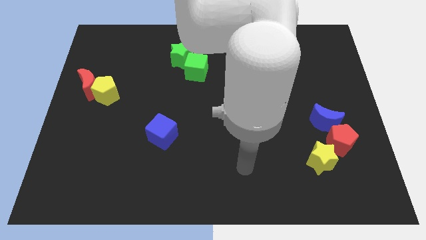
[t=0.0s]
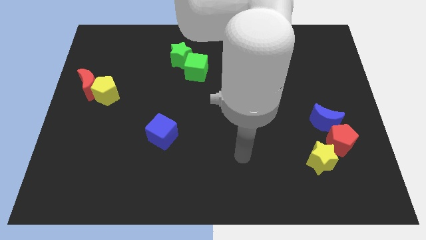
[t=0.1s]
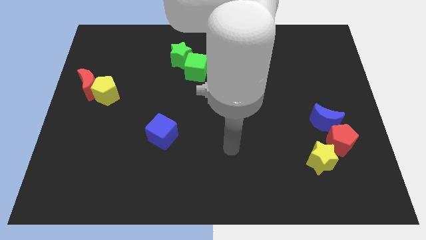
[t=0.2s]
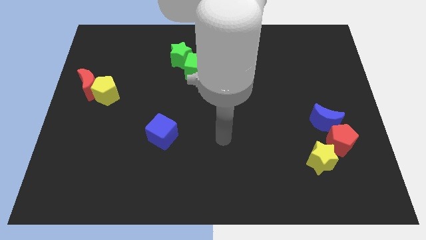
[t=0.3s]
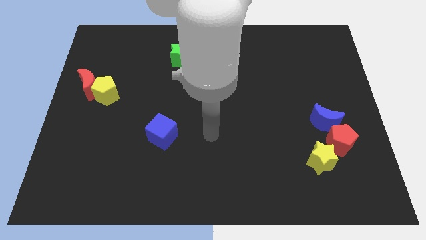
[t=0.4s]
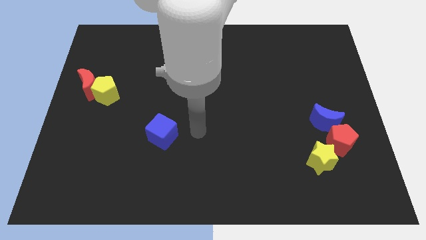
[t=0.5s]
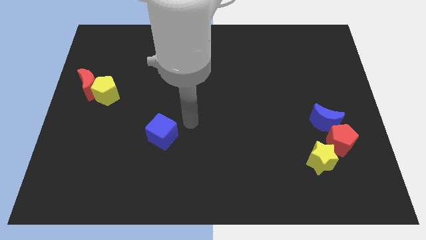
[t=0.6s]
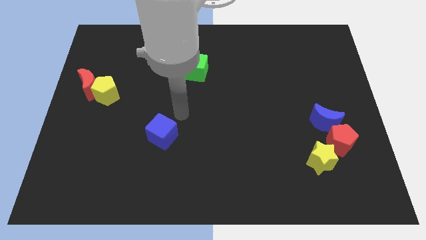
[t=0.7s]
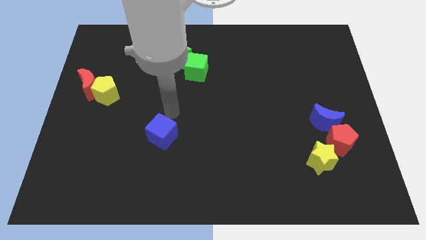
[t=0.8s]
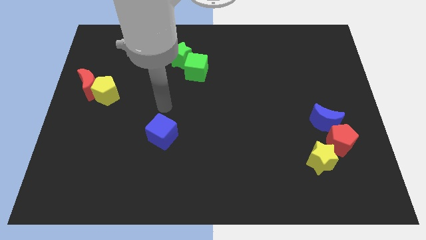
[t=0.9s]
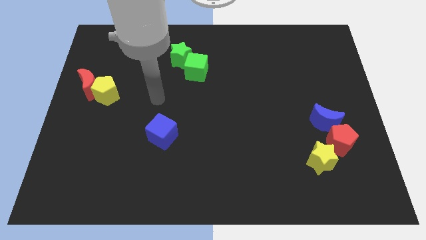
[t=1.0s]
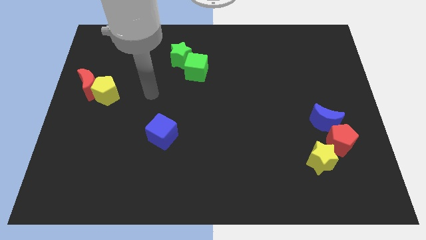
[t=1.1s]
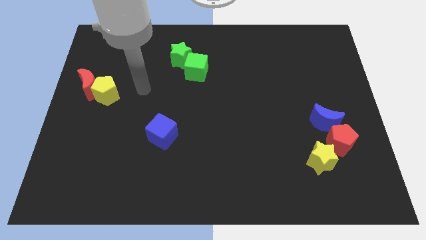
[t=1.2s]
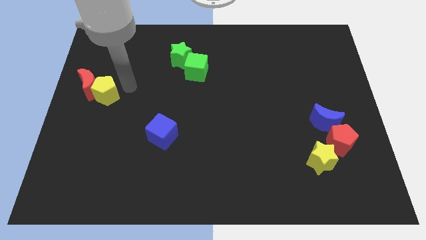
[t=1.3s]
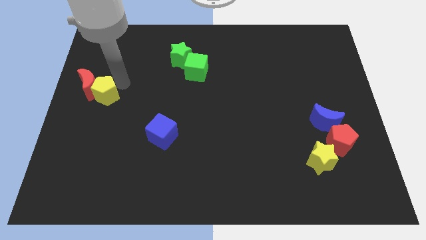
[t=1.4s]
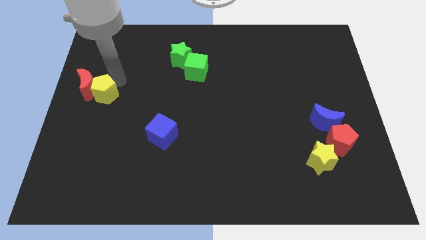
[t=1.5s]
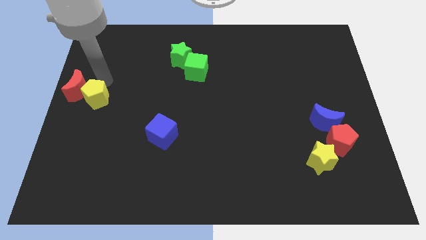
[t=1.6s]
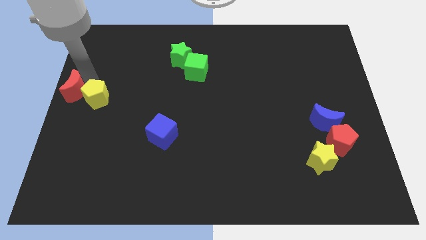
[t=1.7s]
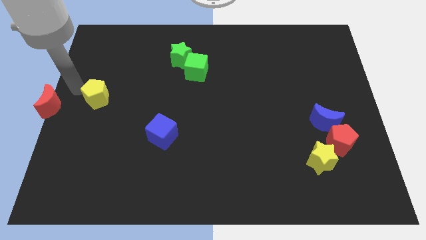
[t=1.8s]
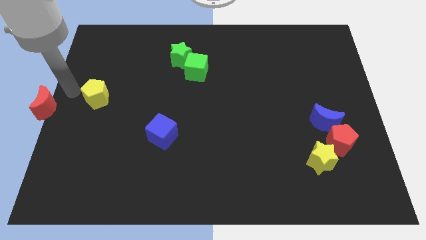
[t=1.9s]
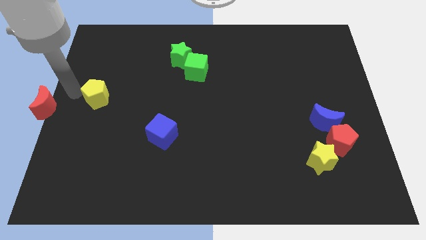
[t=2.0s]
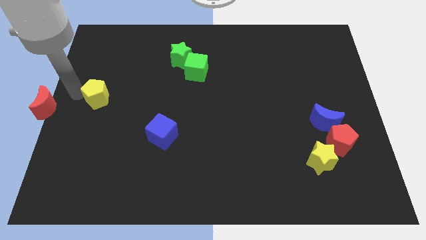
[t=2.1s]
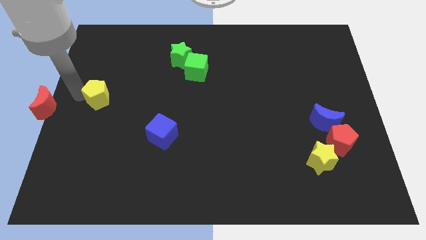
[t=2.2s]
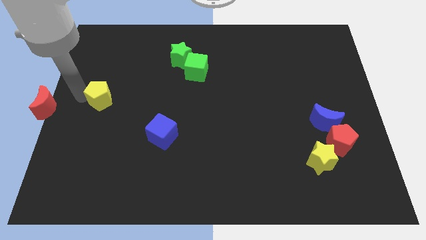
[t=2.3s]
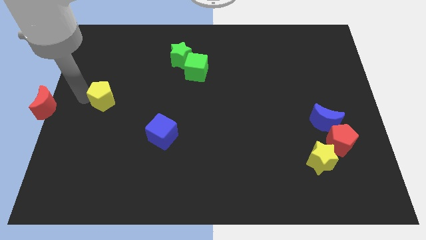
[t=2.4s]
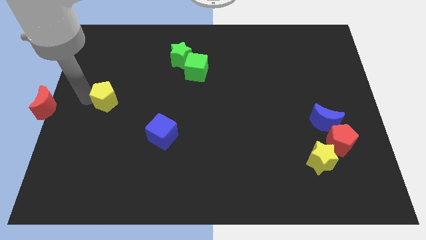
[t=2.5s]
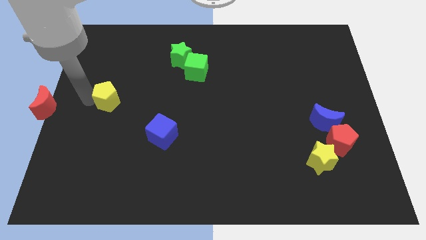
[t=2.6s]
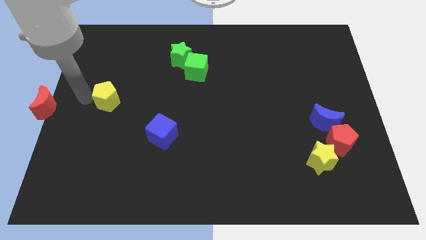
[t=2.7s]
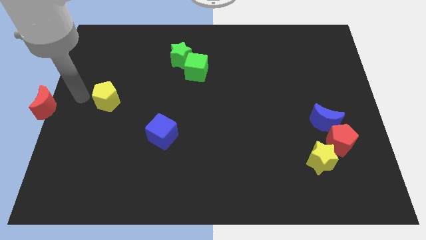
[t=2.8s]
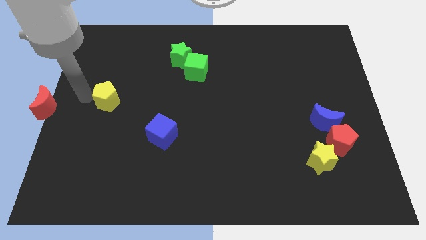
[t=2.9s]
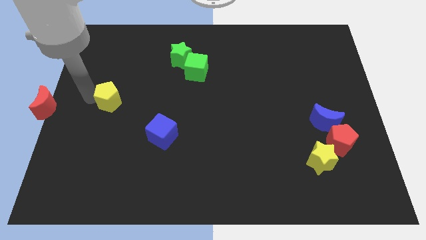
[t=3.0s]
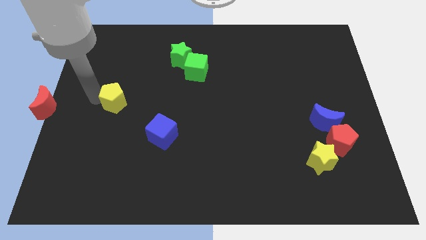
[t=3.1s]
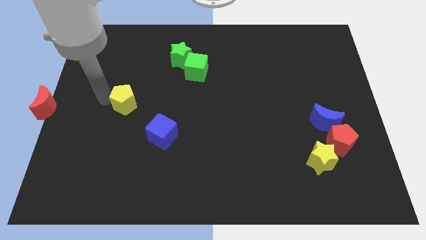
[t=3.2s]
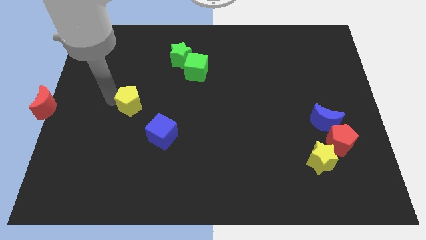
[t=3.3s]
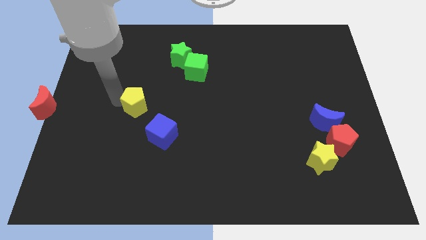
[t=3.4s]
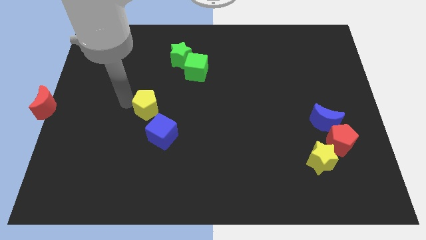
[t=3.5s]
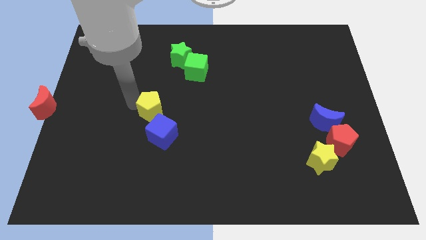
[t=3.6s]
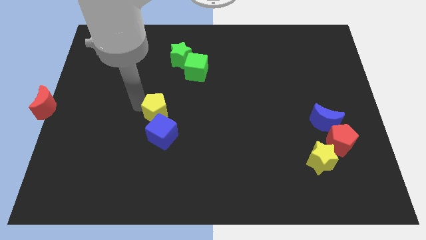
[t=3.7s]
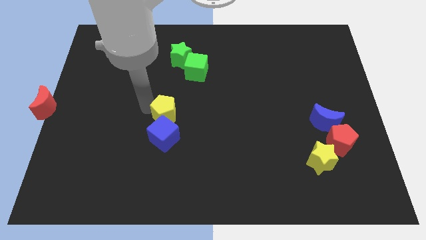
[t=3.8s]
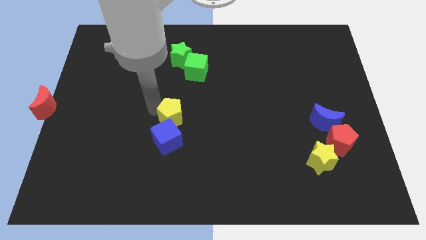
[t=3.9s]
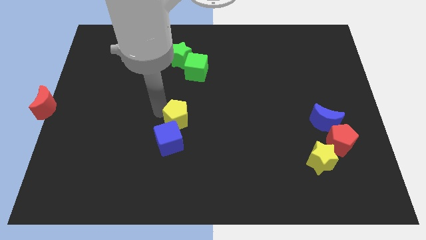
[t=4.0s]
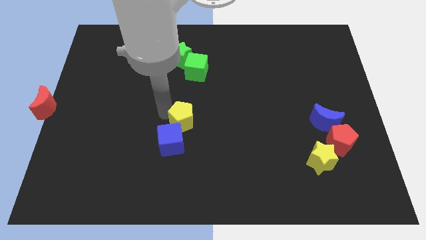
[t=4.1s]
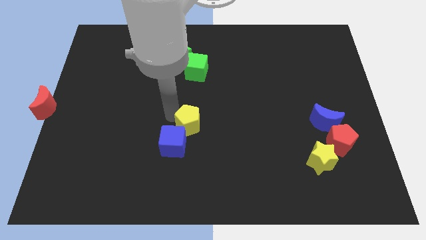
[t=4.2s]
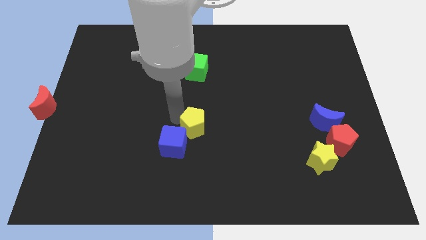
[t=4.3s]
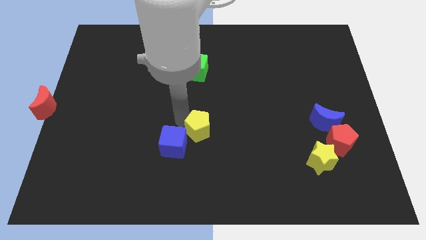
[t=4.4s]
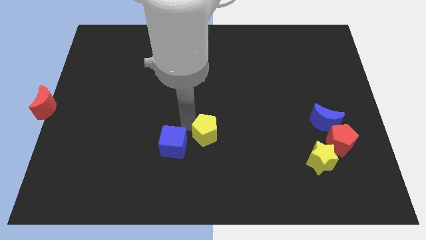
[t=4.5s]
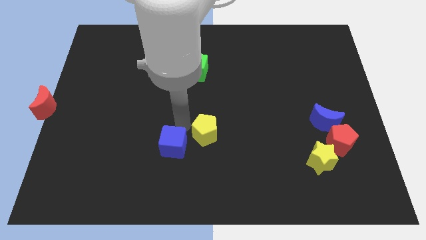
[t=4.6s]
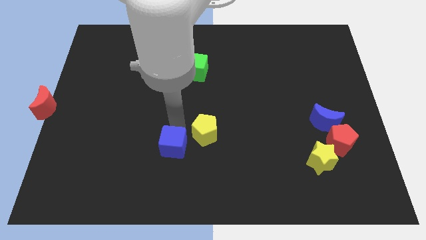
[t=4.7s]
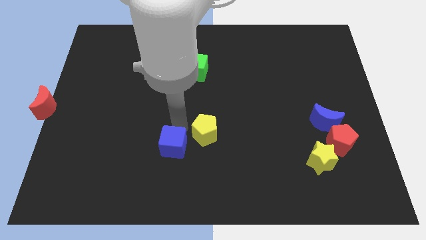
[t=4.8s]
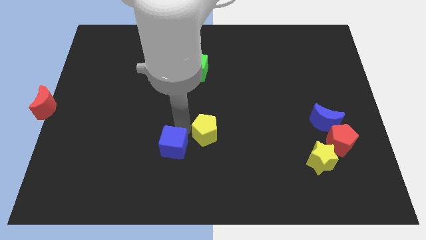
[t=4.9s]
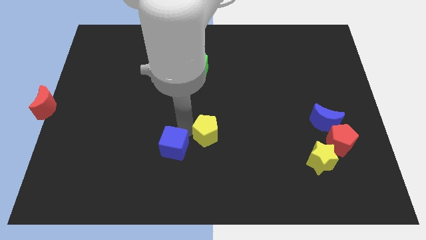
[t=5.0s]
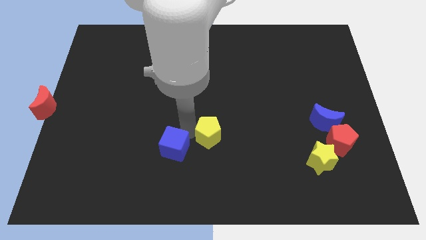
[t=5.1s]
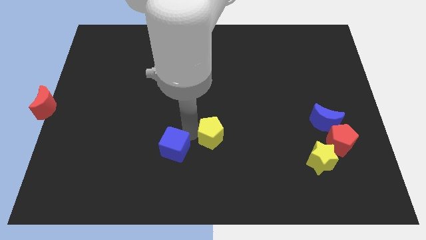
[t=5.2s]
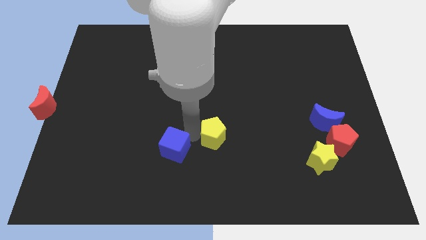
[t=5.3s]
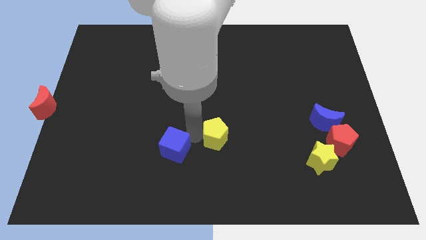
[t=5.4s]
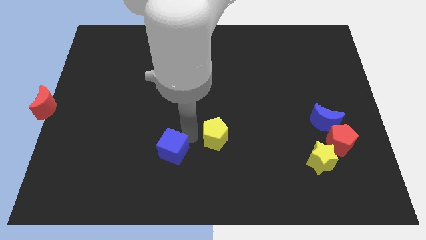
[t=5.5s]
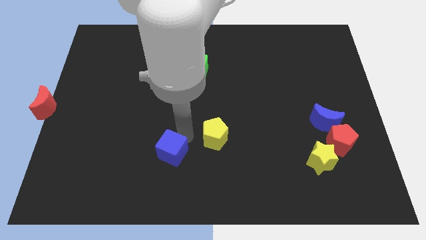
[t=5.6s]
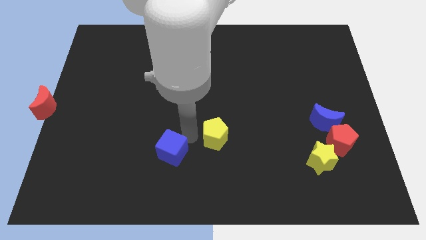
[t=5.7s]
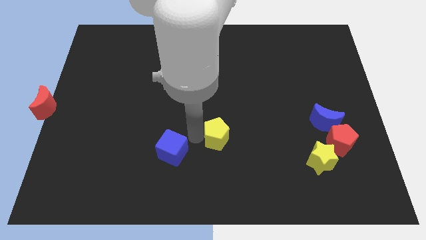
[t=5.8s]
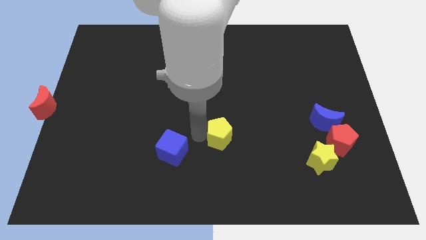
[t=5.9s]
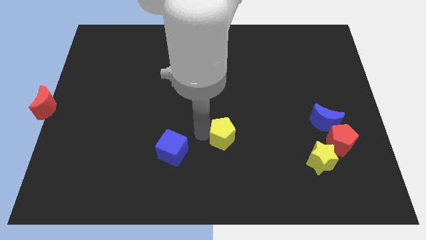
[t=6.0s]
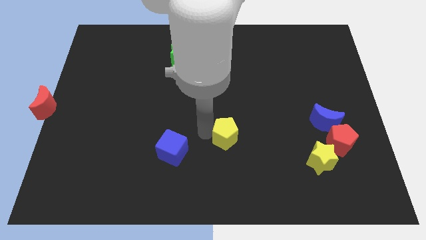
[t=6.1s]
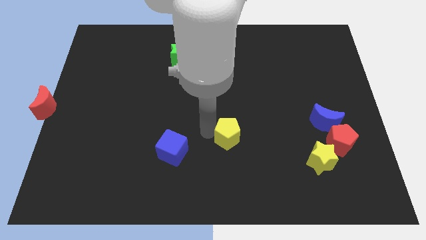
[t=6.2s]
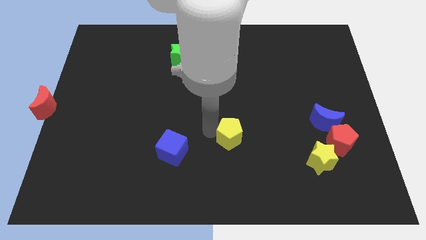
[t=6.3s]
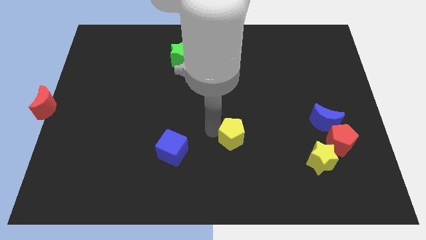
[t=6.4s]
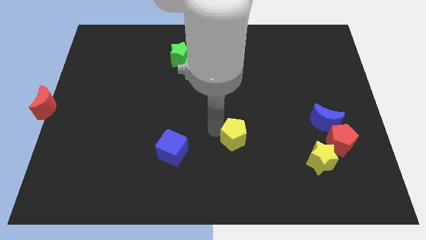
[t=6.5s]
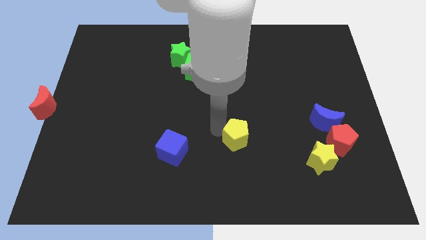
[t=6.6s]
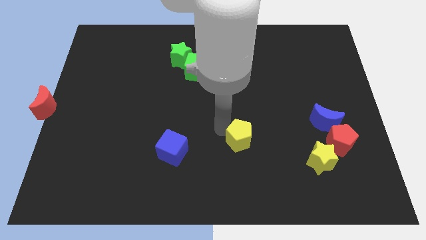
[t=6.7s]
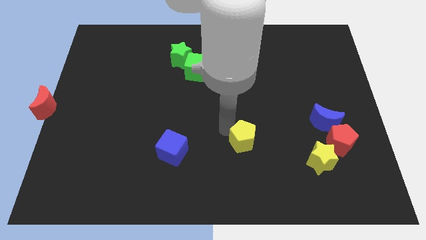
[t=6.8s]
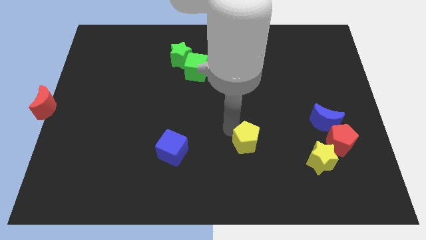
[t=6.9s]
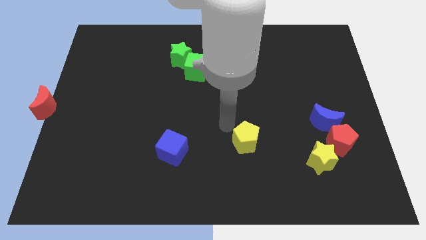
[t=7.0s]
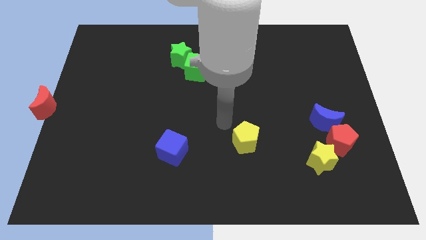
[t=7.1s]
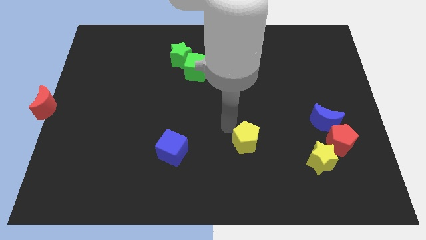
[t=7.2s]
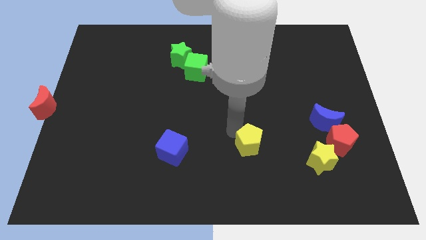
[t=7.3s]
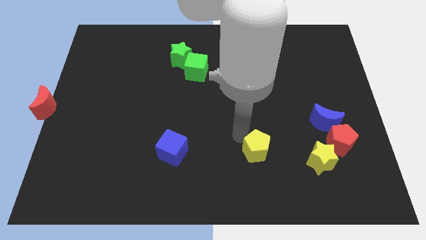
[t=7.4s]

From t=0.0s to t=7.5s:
put the yellow pentagon to the left of the yellow star
